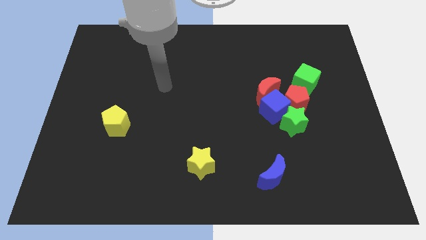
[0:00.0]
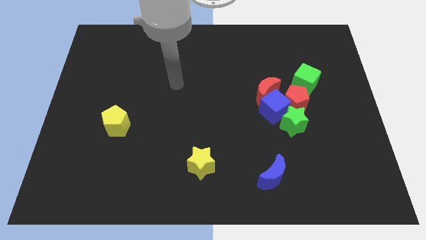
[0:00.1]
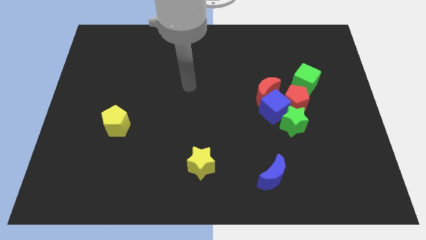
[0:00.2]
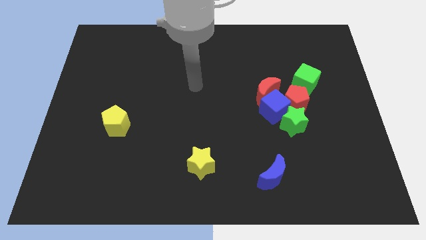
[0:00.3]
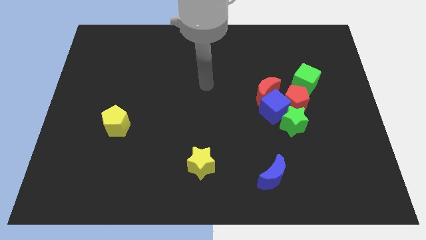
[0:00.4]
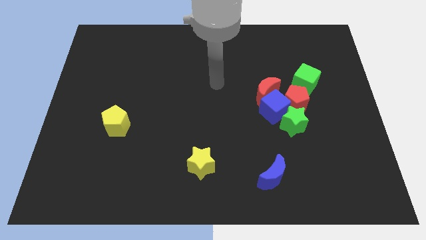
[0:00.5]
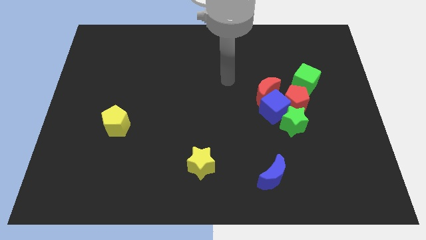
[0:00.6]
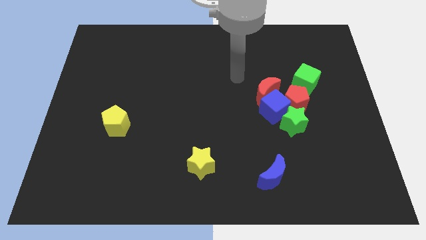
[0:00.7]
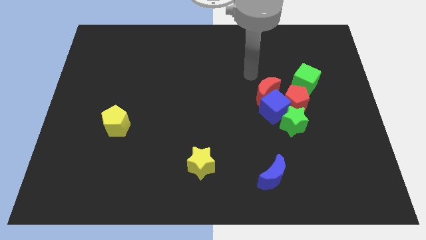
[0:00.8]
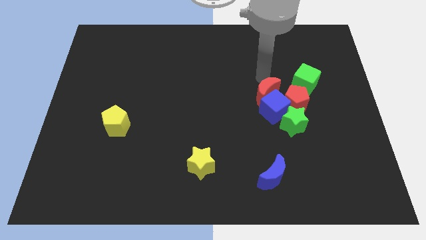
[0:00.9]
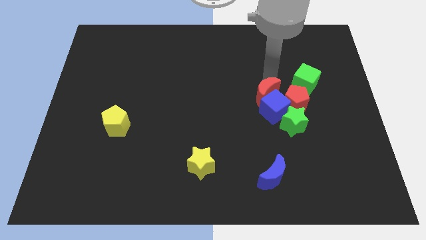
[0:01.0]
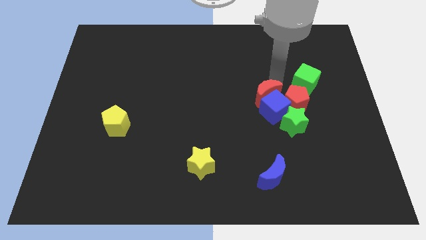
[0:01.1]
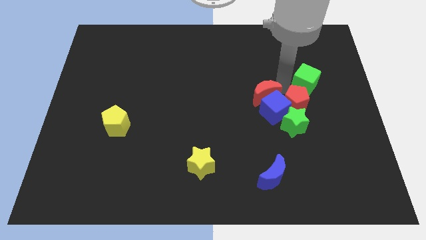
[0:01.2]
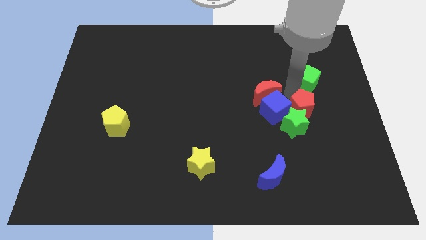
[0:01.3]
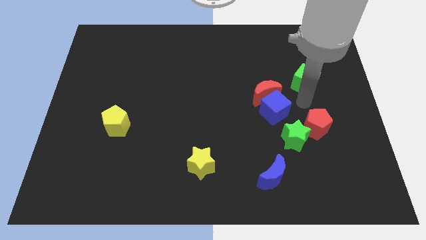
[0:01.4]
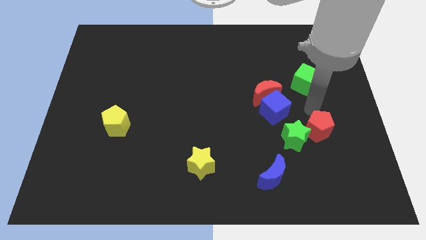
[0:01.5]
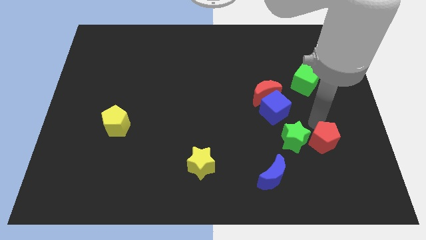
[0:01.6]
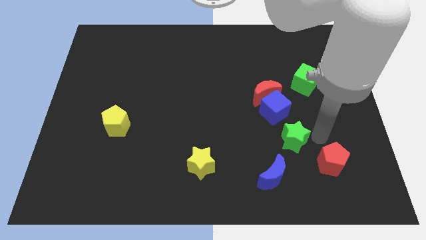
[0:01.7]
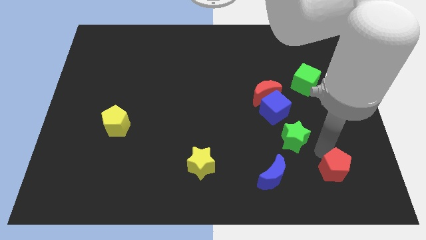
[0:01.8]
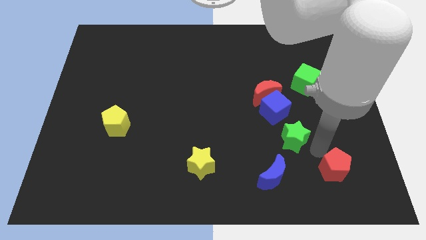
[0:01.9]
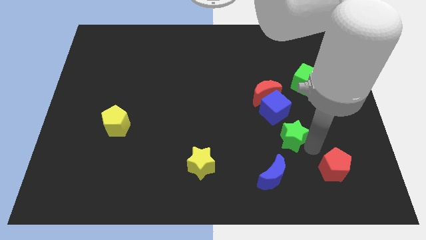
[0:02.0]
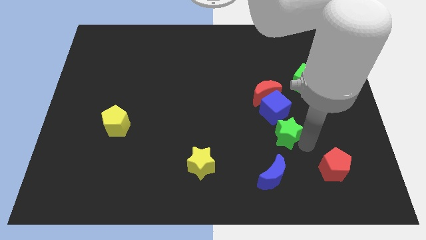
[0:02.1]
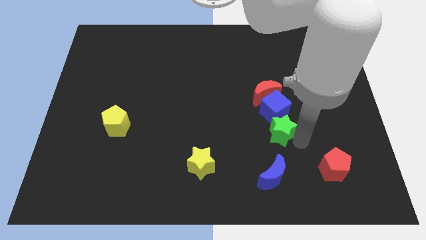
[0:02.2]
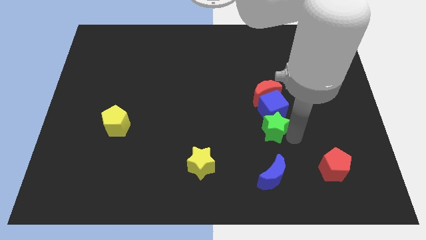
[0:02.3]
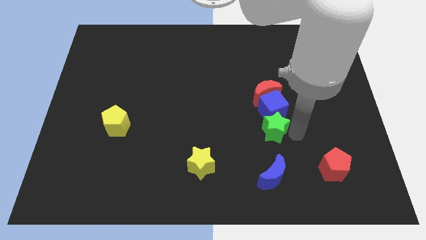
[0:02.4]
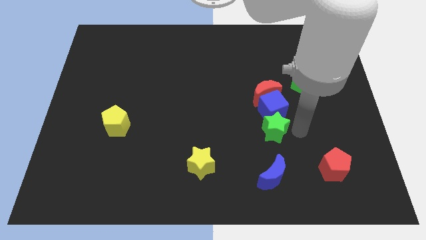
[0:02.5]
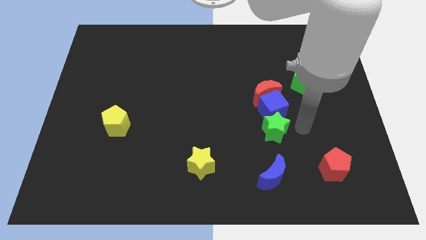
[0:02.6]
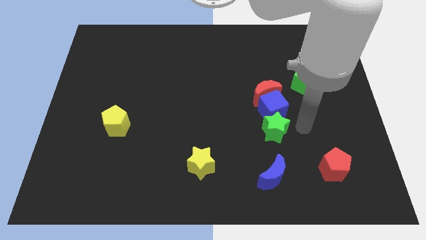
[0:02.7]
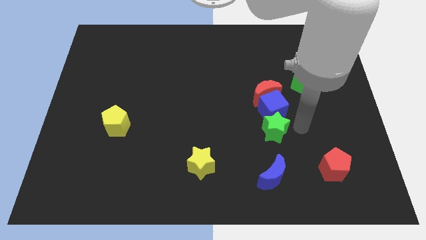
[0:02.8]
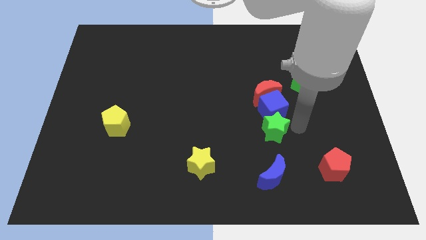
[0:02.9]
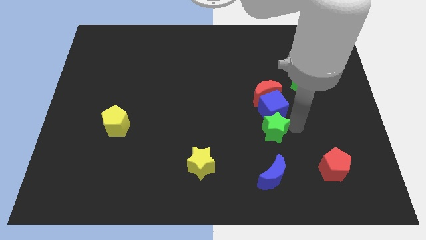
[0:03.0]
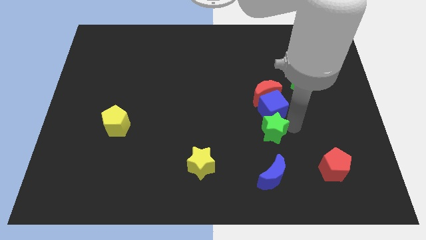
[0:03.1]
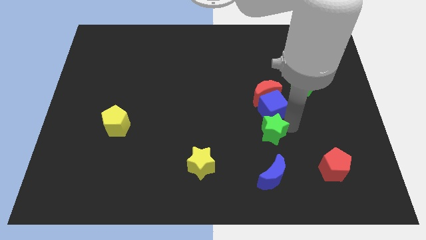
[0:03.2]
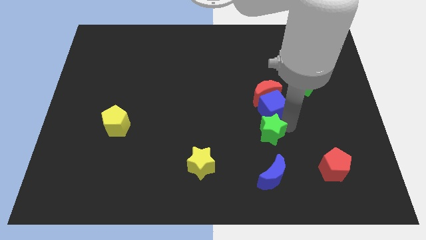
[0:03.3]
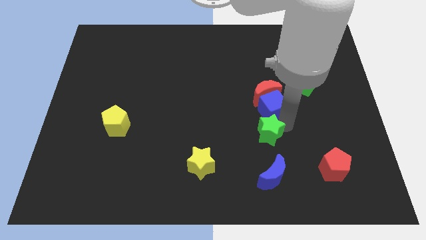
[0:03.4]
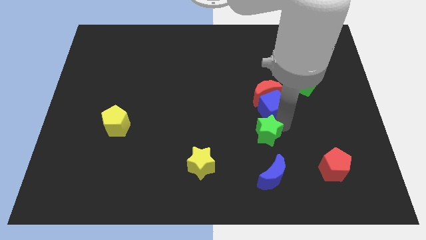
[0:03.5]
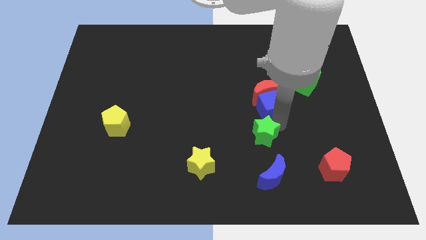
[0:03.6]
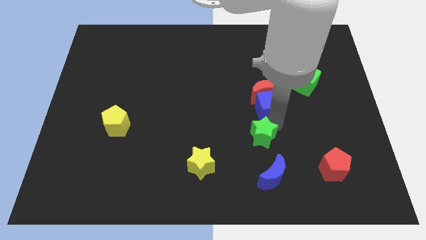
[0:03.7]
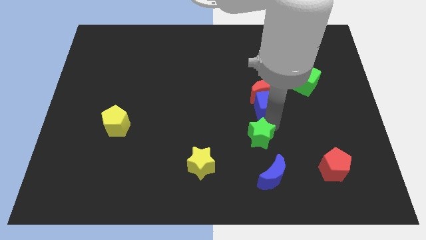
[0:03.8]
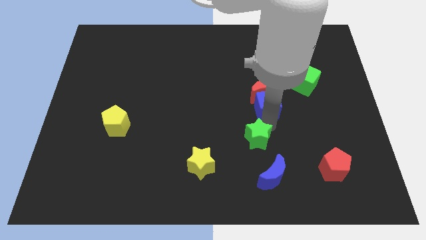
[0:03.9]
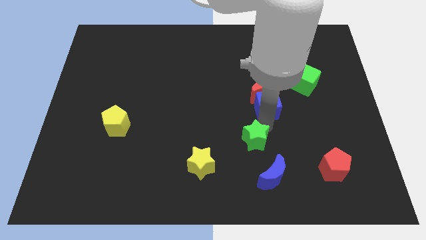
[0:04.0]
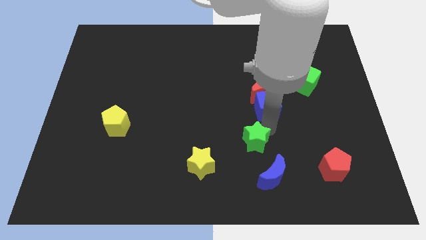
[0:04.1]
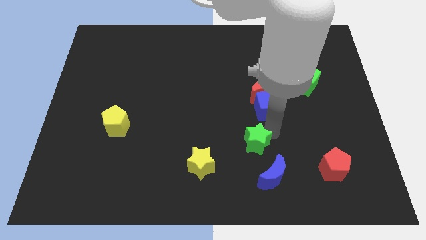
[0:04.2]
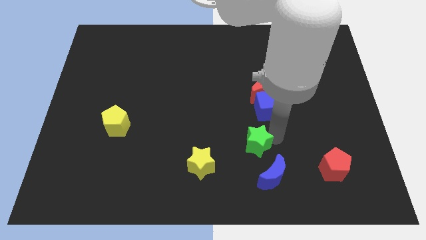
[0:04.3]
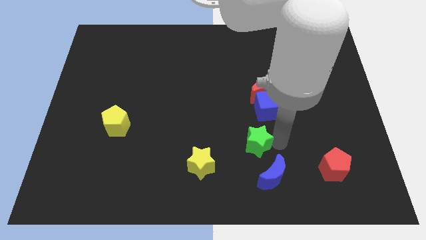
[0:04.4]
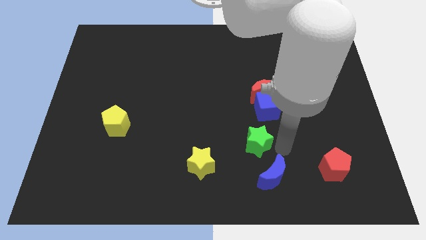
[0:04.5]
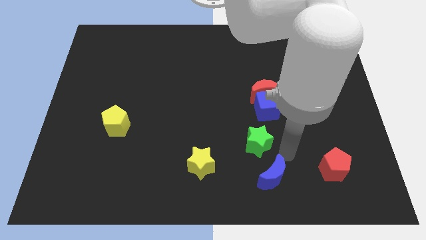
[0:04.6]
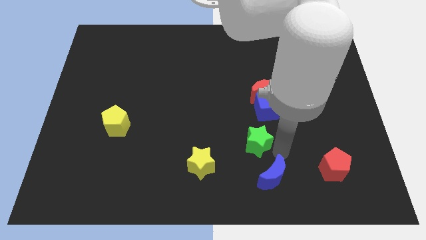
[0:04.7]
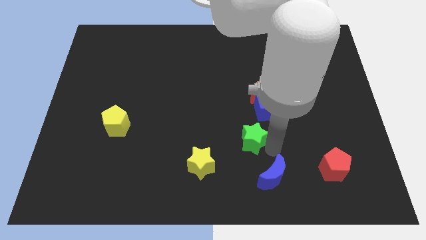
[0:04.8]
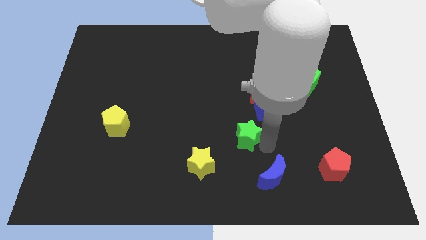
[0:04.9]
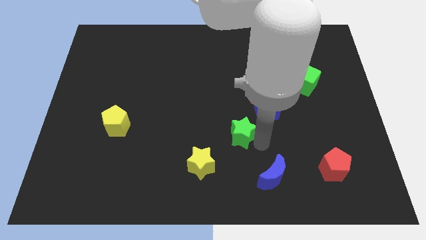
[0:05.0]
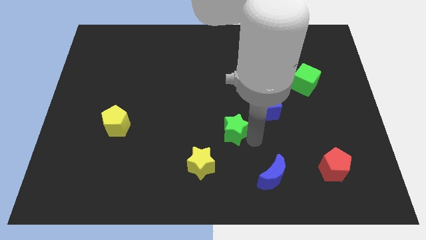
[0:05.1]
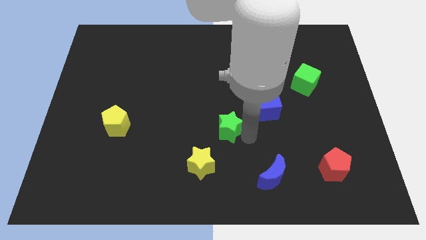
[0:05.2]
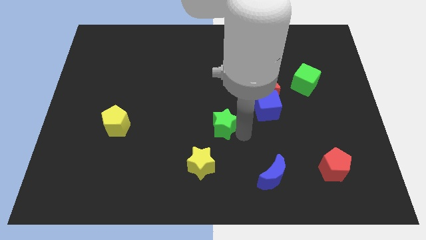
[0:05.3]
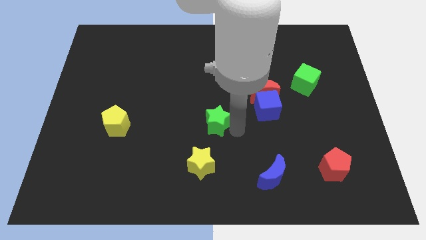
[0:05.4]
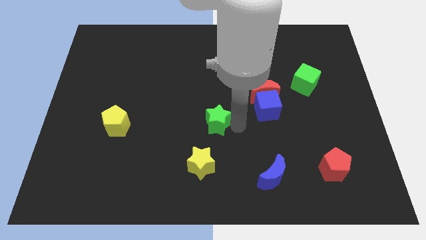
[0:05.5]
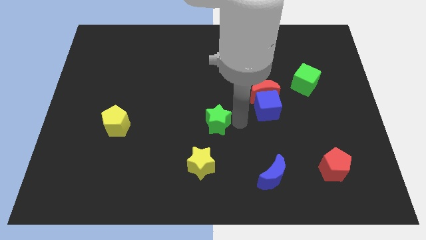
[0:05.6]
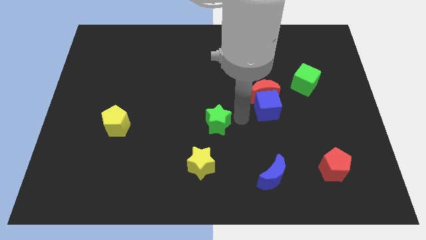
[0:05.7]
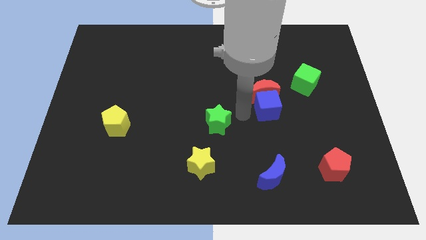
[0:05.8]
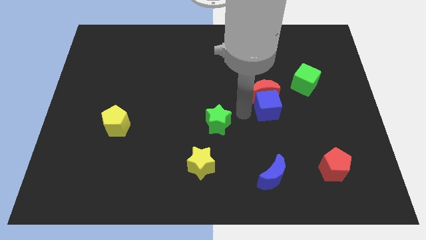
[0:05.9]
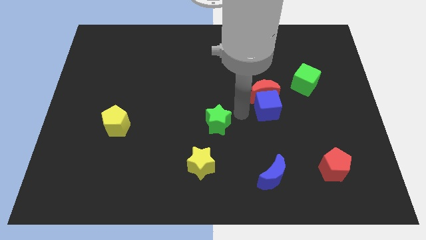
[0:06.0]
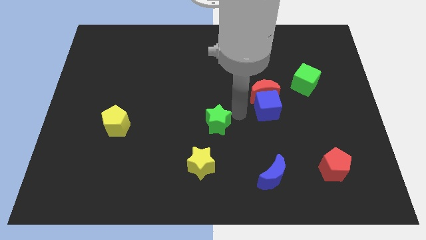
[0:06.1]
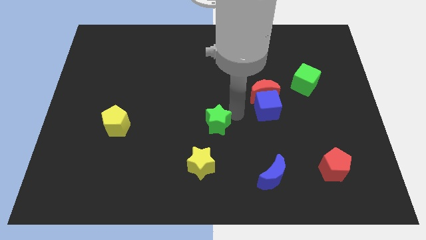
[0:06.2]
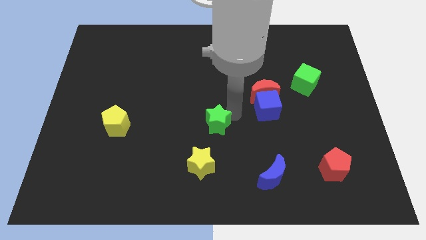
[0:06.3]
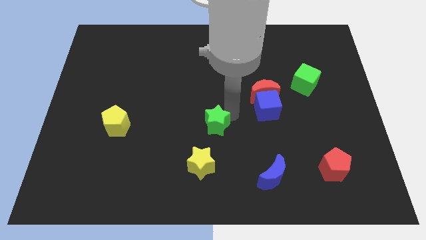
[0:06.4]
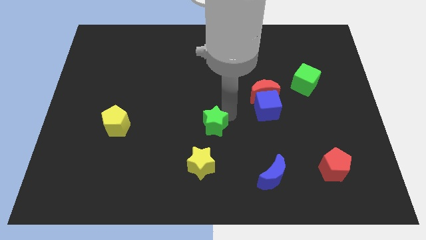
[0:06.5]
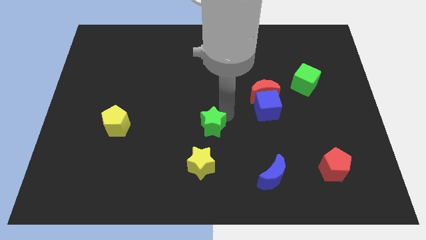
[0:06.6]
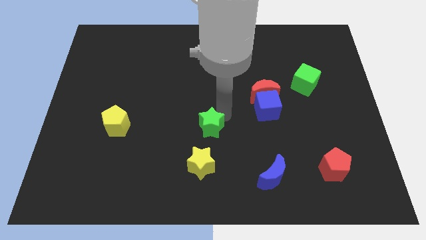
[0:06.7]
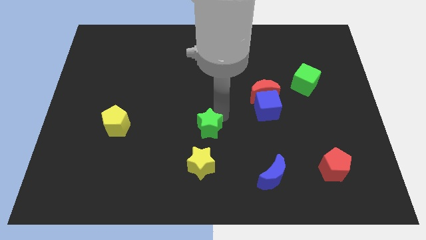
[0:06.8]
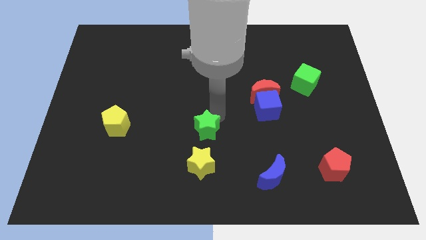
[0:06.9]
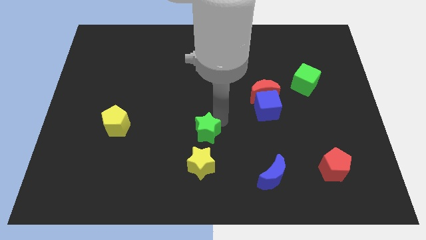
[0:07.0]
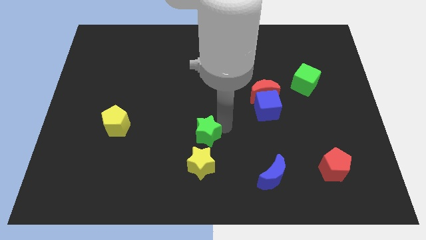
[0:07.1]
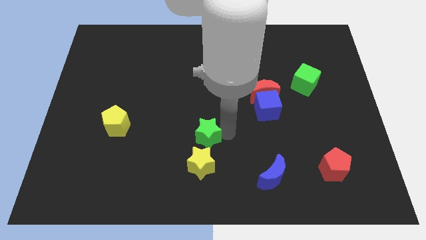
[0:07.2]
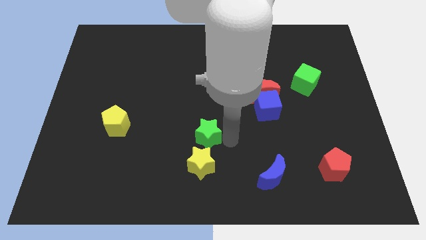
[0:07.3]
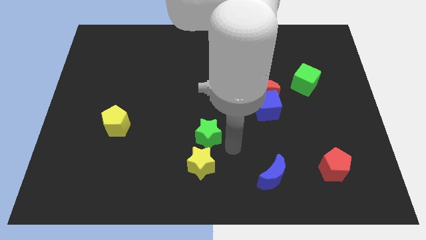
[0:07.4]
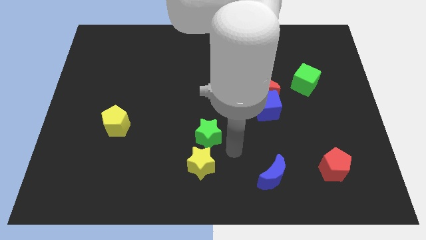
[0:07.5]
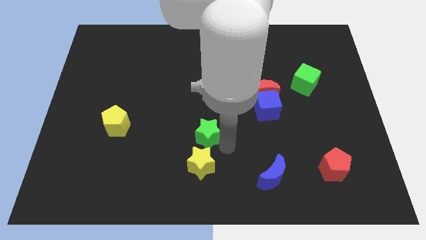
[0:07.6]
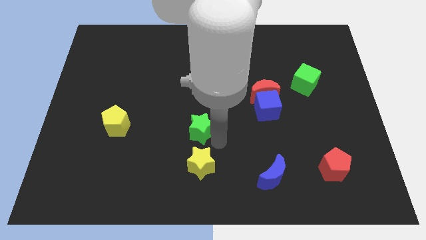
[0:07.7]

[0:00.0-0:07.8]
move the green star to the left
